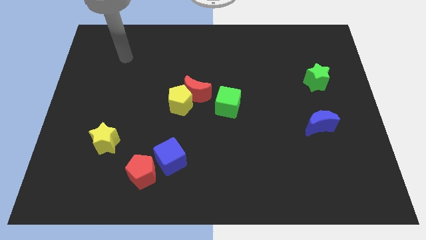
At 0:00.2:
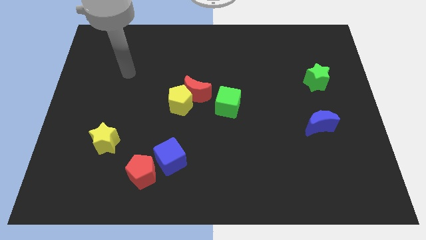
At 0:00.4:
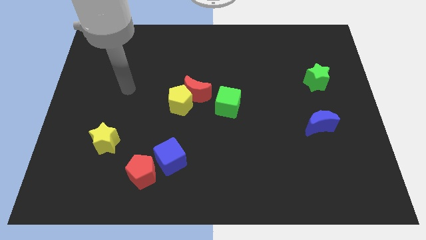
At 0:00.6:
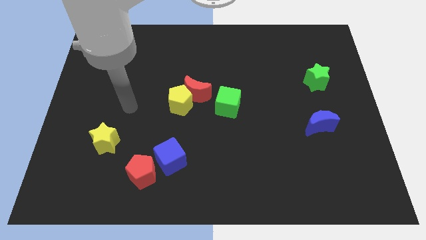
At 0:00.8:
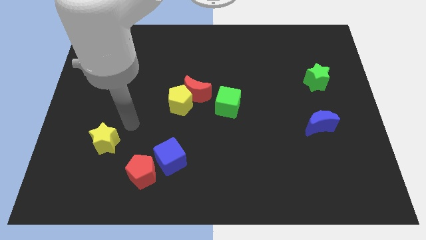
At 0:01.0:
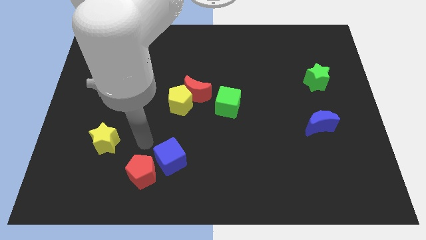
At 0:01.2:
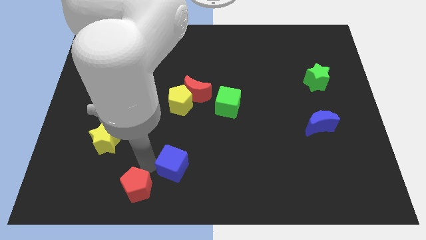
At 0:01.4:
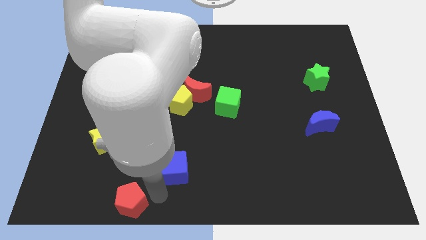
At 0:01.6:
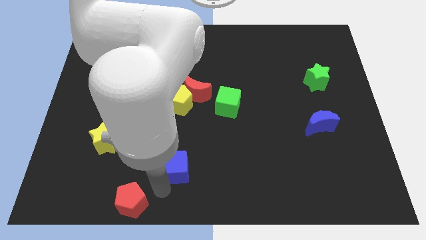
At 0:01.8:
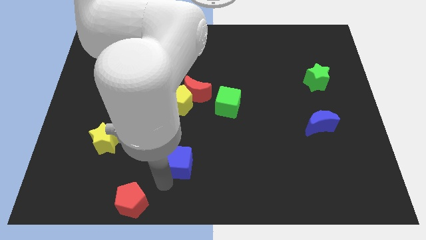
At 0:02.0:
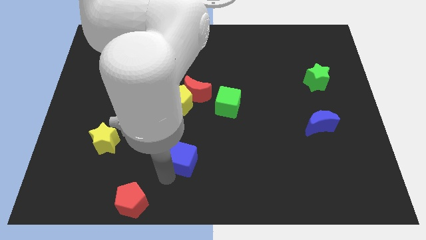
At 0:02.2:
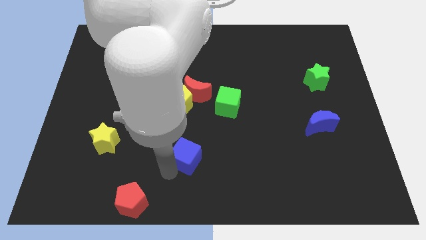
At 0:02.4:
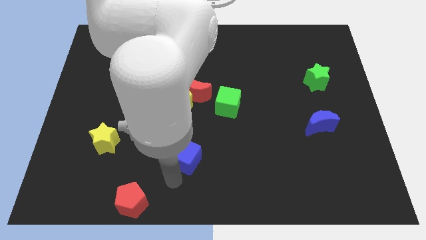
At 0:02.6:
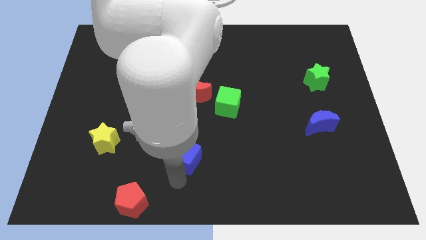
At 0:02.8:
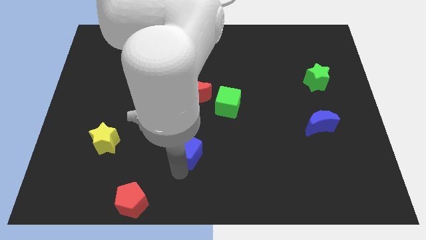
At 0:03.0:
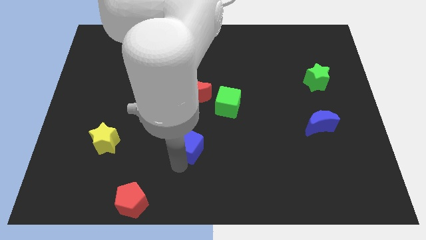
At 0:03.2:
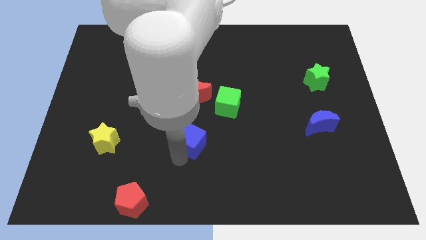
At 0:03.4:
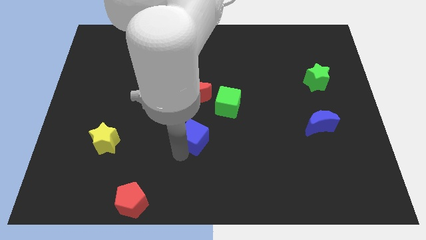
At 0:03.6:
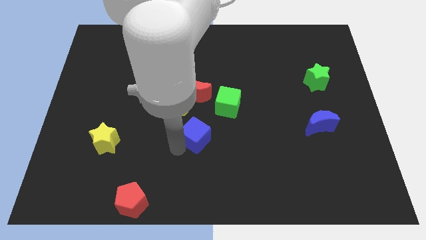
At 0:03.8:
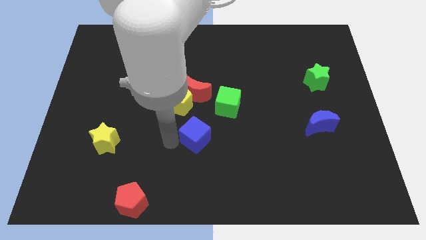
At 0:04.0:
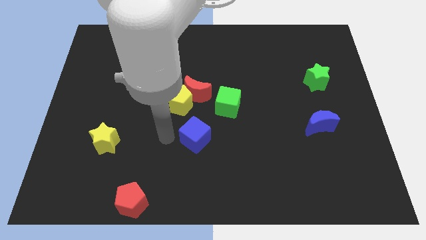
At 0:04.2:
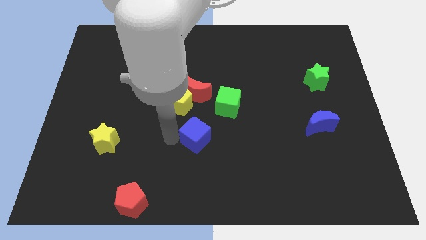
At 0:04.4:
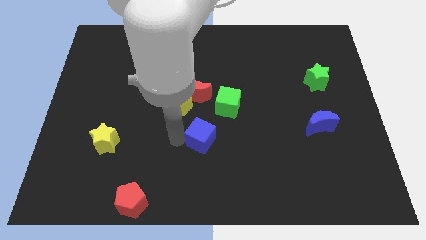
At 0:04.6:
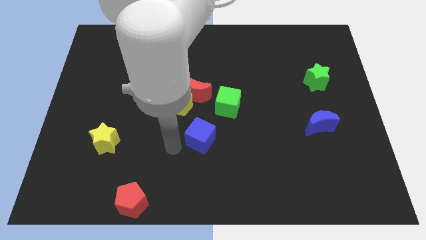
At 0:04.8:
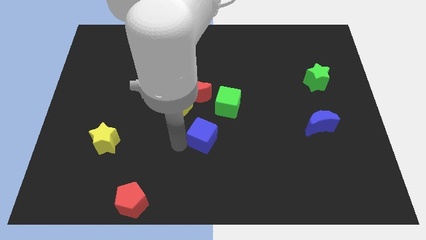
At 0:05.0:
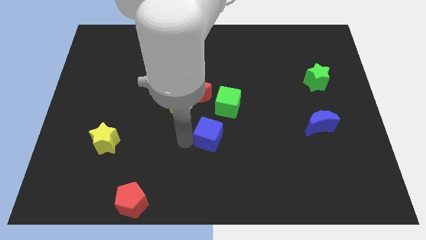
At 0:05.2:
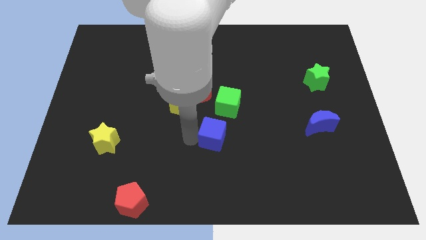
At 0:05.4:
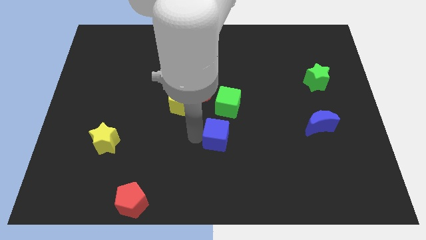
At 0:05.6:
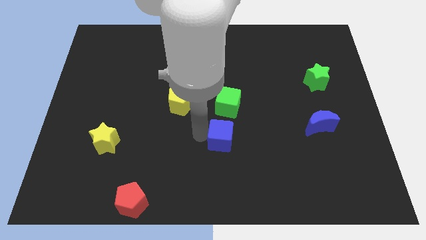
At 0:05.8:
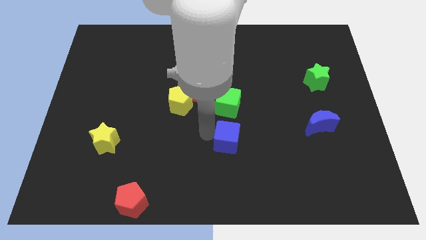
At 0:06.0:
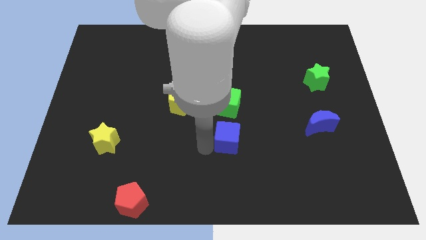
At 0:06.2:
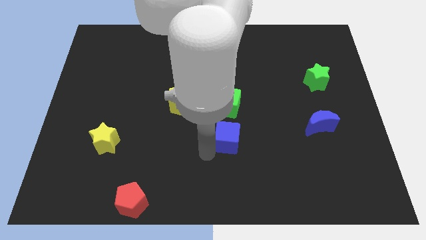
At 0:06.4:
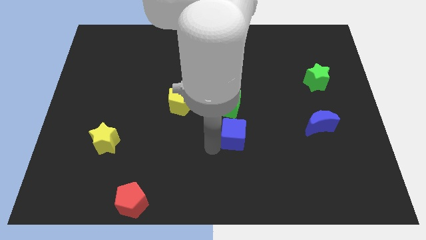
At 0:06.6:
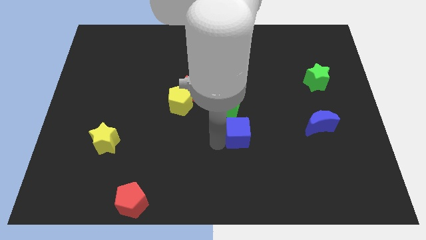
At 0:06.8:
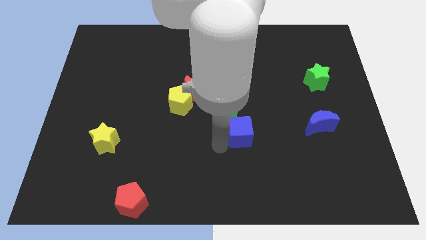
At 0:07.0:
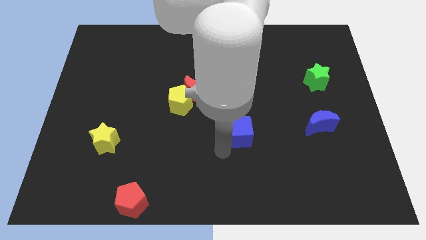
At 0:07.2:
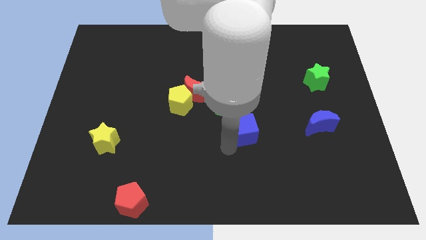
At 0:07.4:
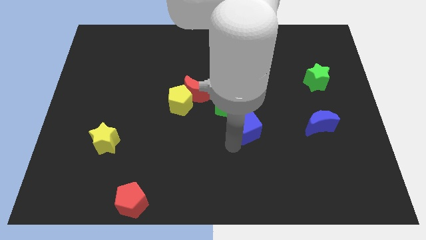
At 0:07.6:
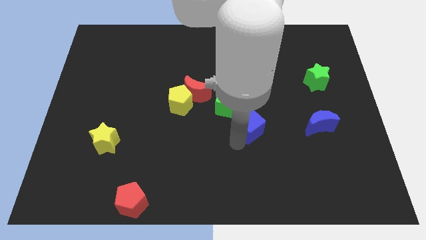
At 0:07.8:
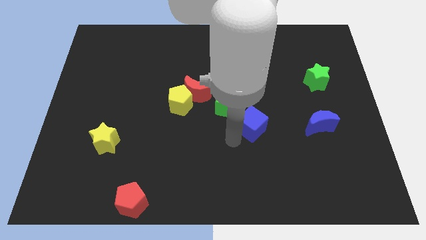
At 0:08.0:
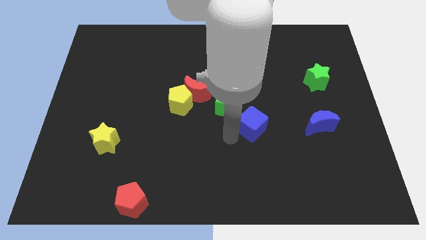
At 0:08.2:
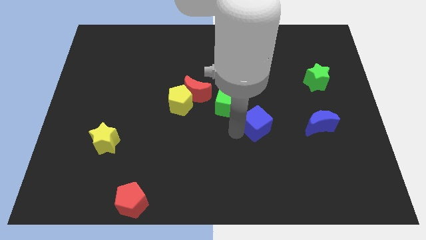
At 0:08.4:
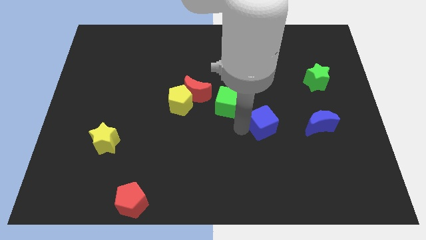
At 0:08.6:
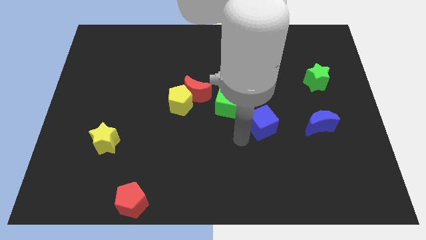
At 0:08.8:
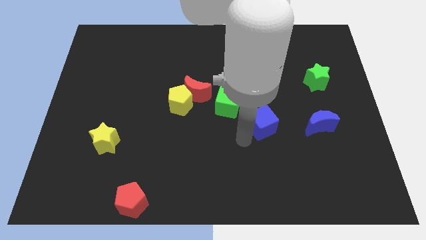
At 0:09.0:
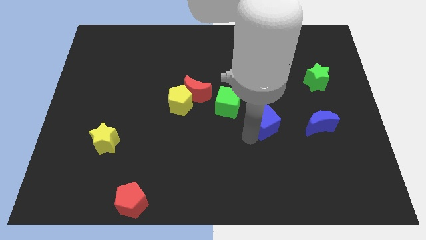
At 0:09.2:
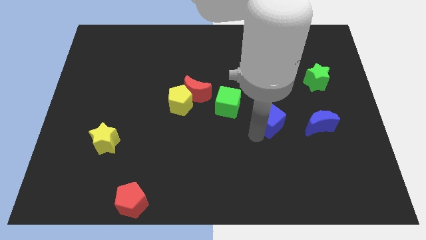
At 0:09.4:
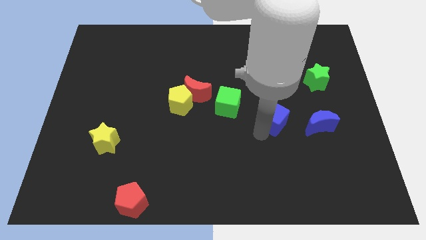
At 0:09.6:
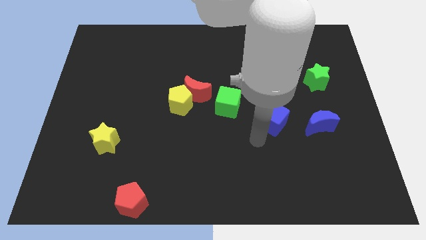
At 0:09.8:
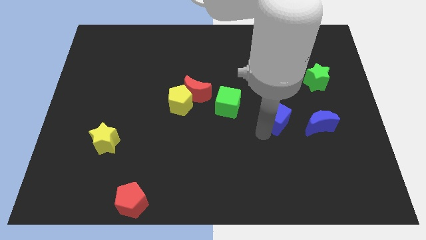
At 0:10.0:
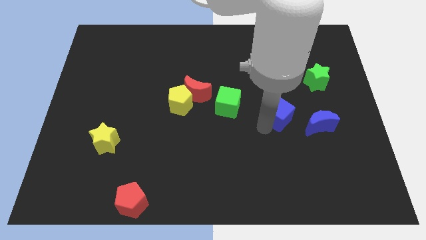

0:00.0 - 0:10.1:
move the blue cube to the top left of the blue moon
